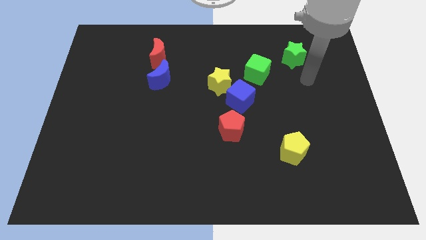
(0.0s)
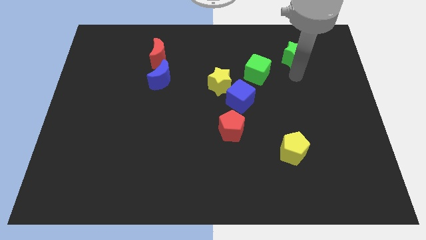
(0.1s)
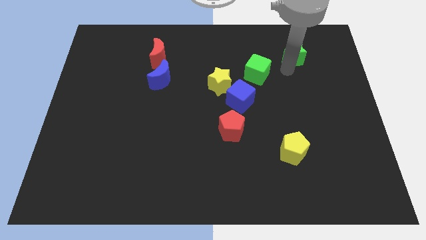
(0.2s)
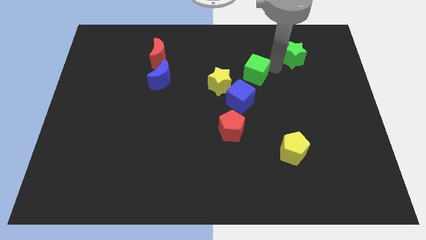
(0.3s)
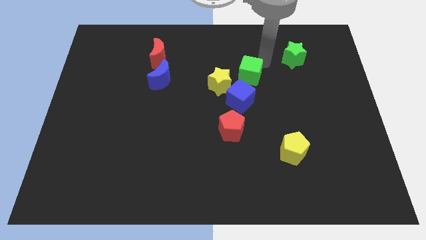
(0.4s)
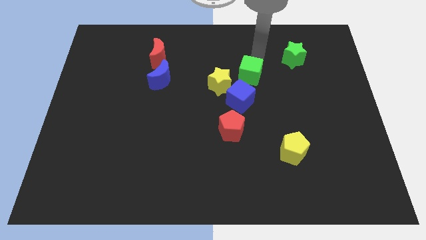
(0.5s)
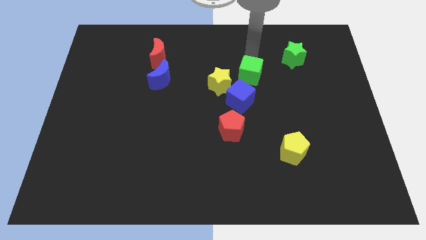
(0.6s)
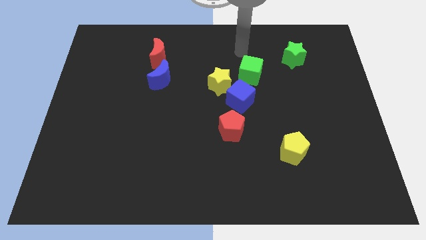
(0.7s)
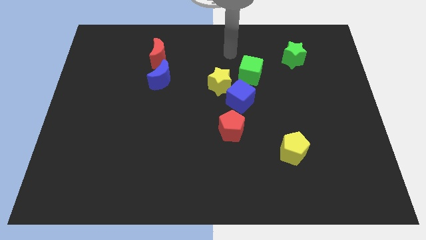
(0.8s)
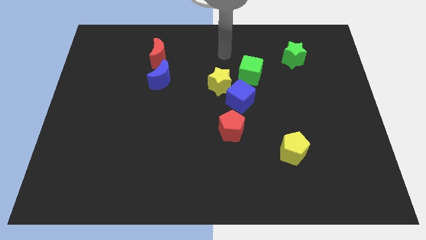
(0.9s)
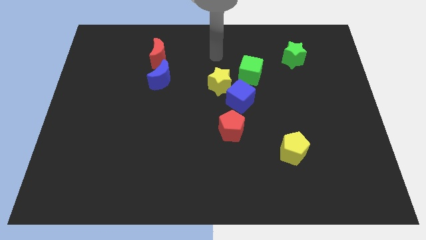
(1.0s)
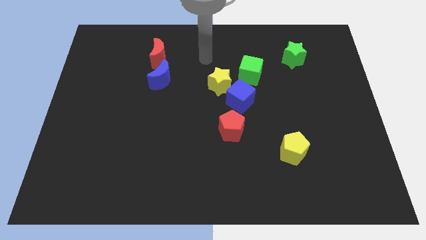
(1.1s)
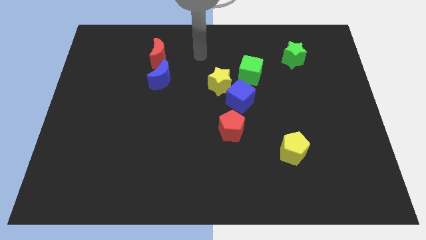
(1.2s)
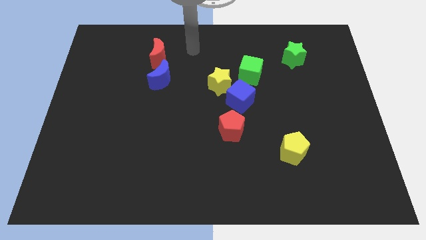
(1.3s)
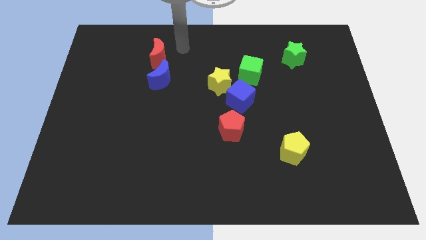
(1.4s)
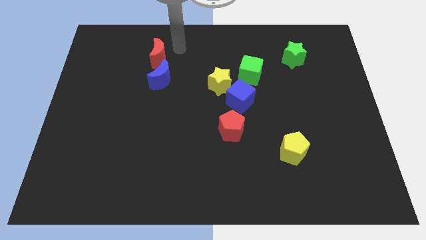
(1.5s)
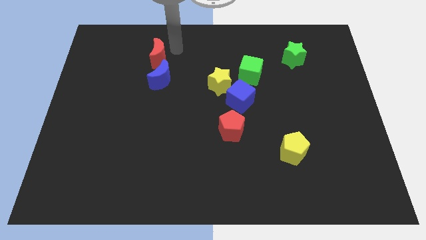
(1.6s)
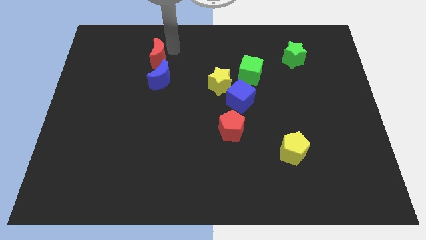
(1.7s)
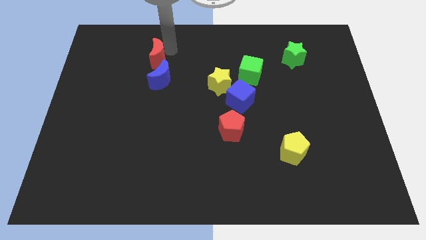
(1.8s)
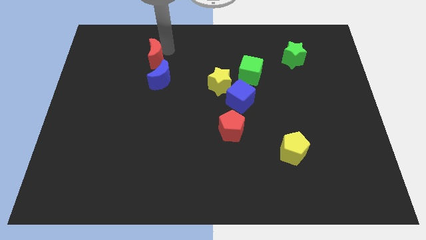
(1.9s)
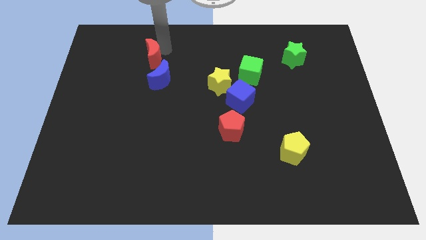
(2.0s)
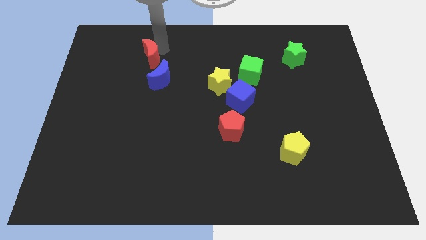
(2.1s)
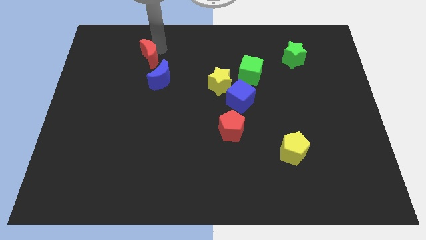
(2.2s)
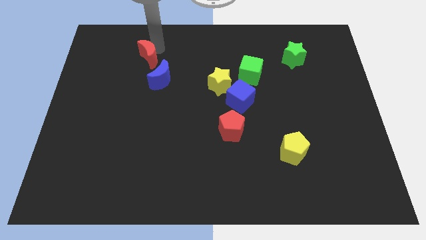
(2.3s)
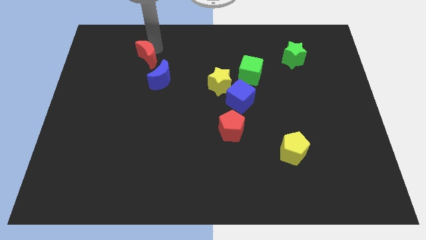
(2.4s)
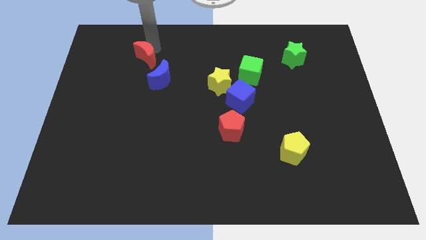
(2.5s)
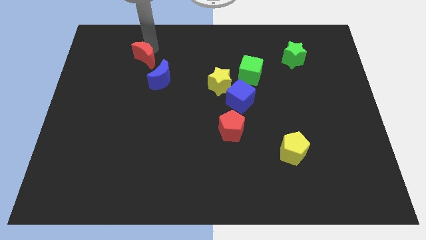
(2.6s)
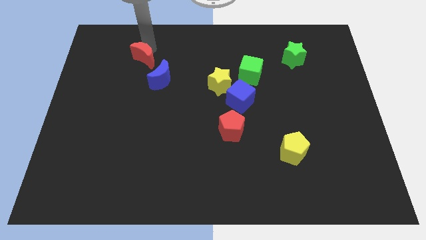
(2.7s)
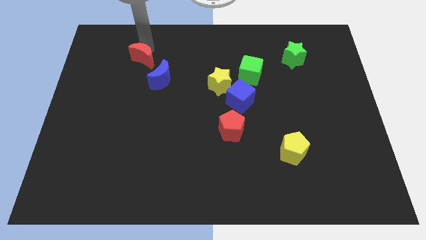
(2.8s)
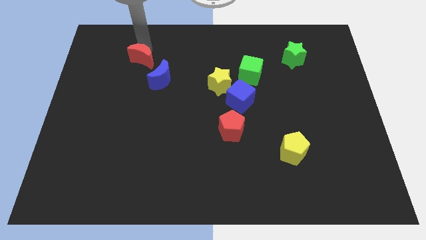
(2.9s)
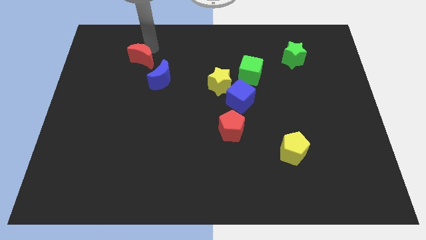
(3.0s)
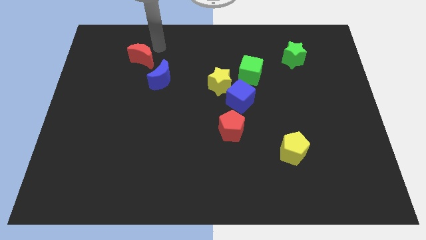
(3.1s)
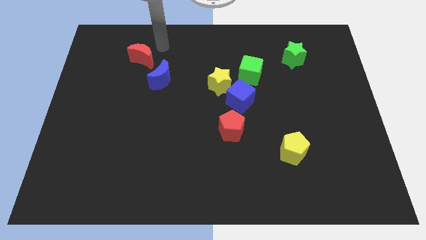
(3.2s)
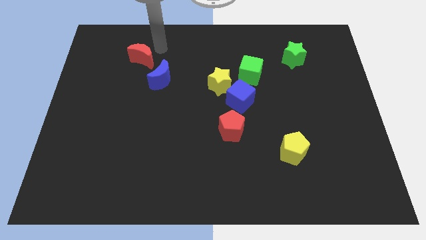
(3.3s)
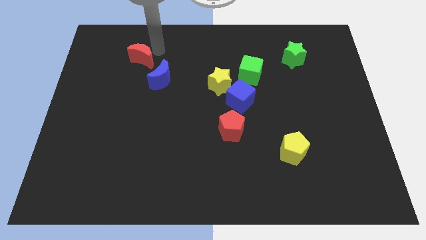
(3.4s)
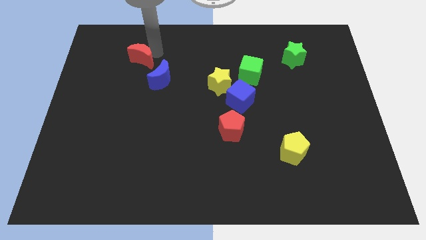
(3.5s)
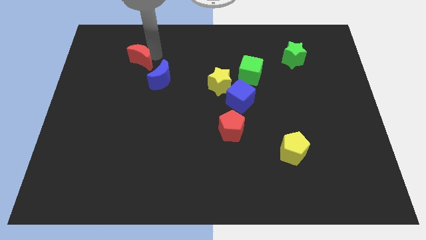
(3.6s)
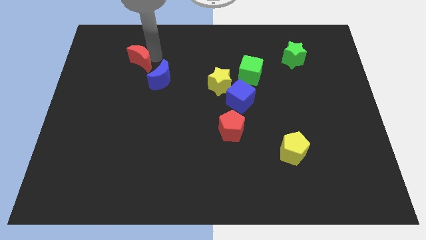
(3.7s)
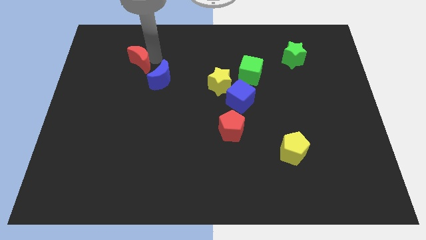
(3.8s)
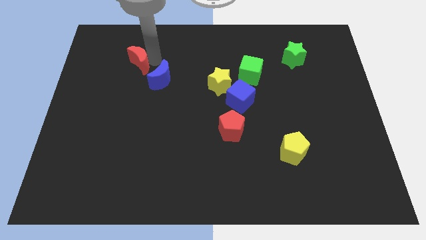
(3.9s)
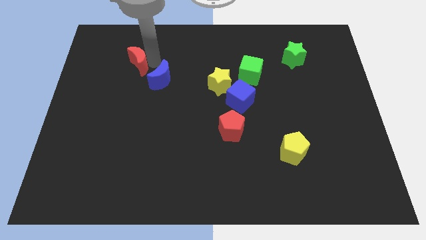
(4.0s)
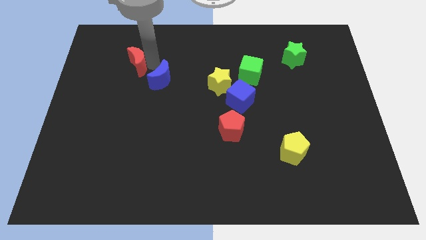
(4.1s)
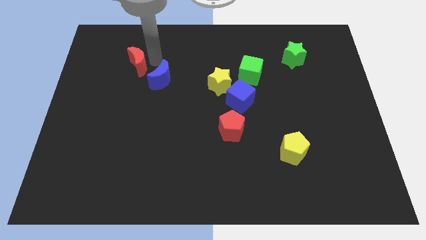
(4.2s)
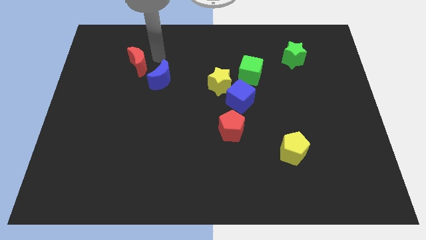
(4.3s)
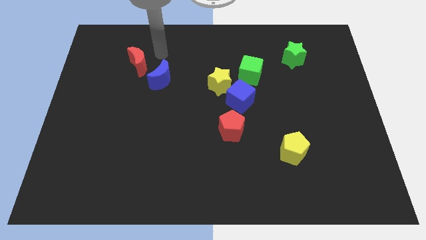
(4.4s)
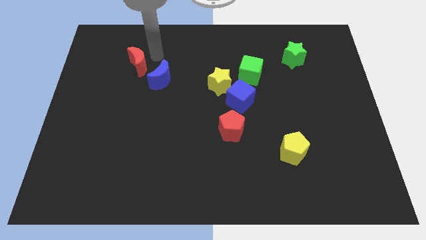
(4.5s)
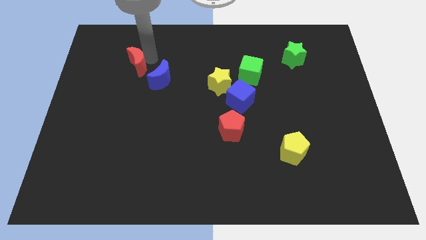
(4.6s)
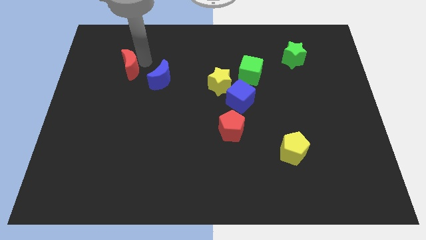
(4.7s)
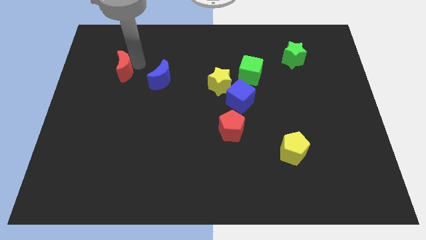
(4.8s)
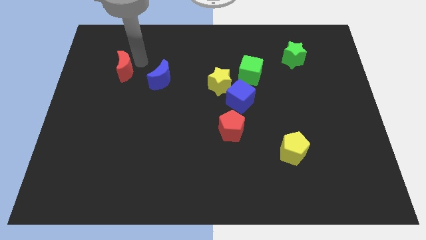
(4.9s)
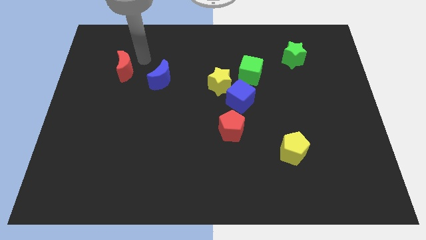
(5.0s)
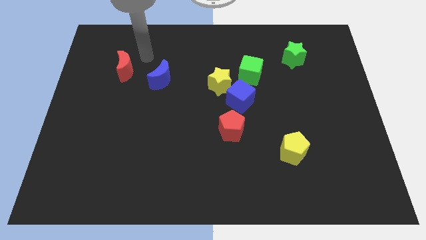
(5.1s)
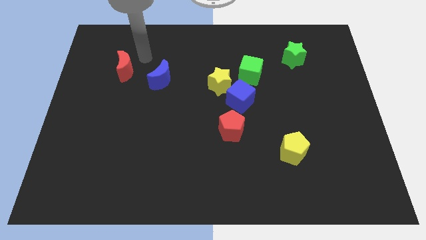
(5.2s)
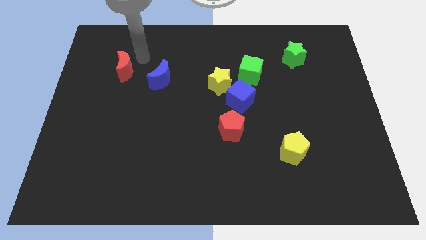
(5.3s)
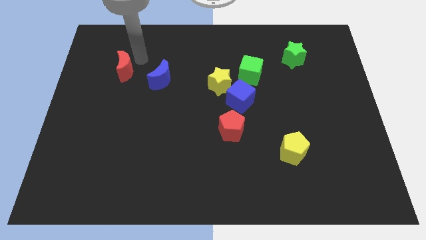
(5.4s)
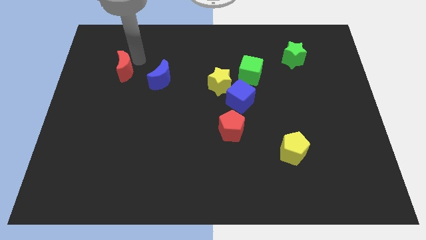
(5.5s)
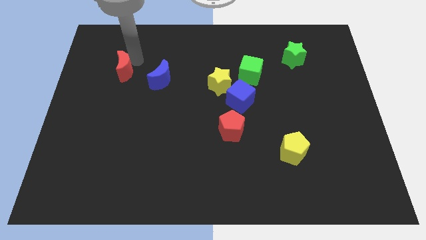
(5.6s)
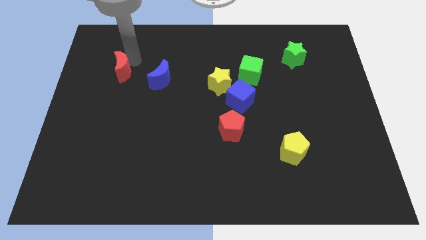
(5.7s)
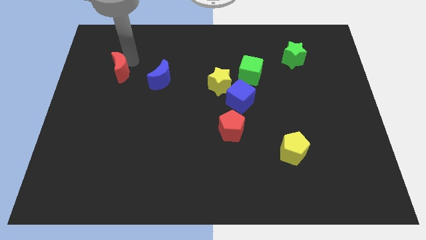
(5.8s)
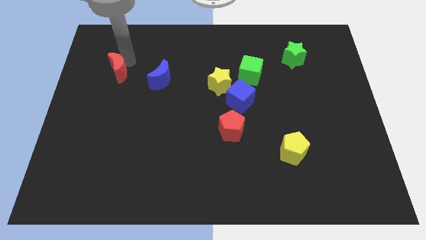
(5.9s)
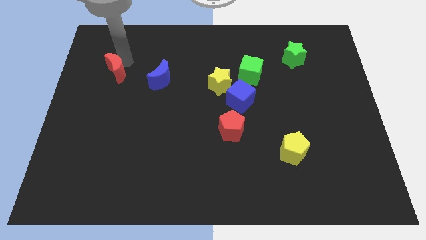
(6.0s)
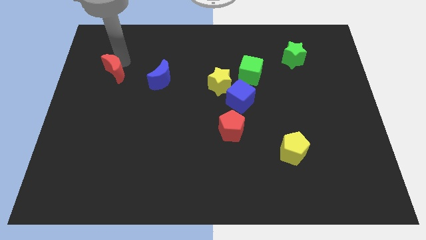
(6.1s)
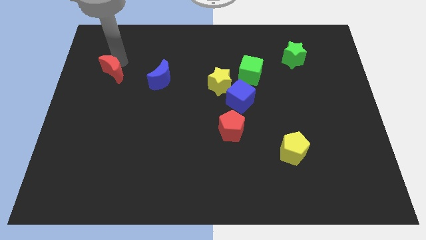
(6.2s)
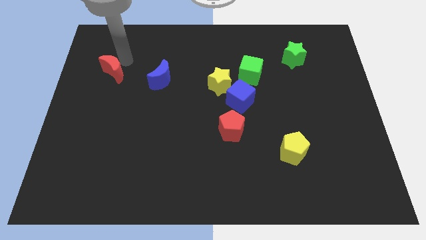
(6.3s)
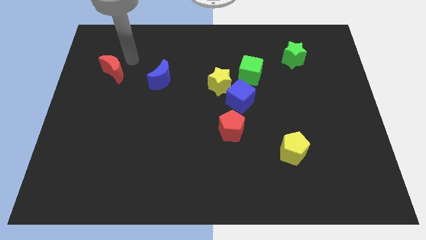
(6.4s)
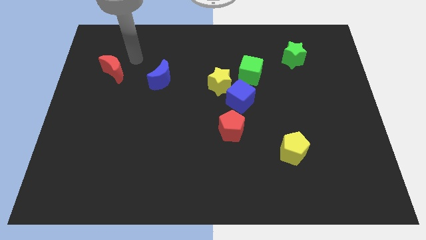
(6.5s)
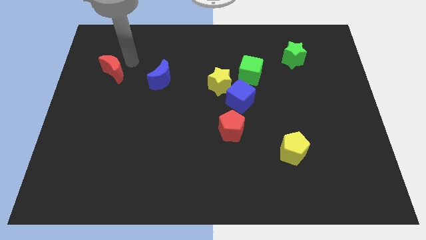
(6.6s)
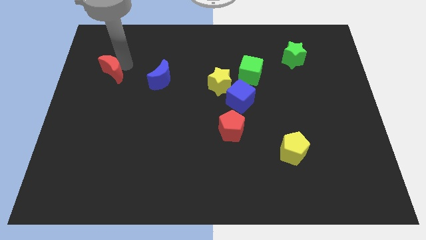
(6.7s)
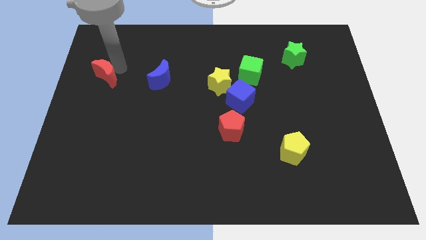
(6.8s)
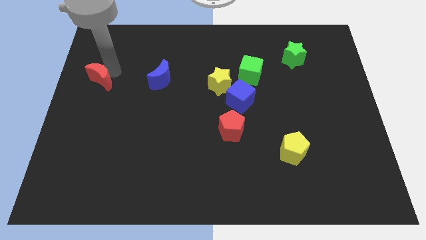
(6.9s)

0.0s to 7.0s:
put the red moon to the left side of the board
